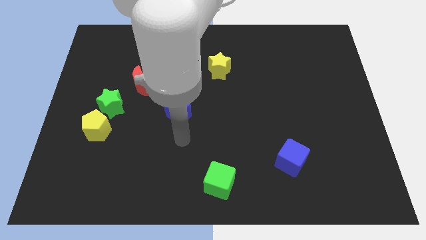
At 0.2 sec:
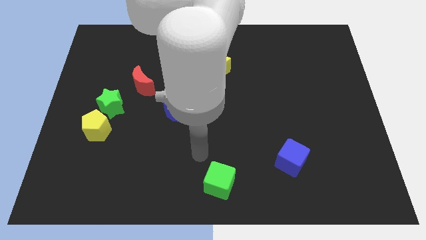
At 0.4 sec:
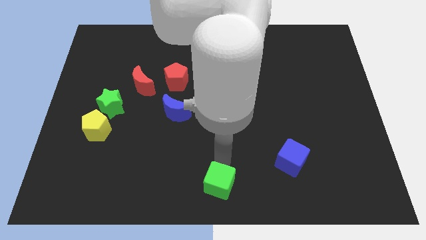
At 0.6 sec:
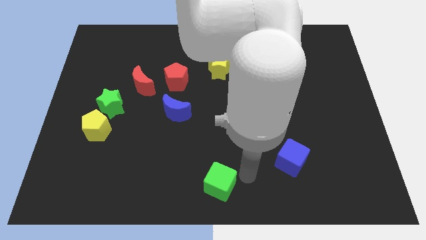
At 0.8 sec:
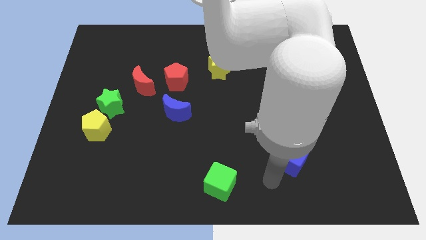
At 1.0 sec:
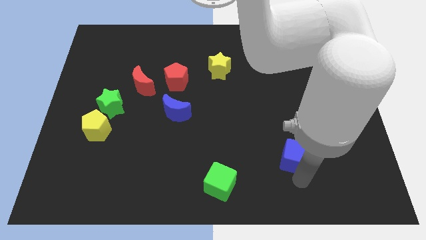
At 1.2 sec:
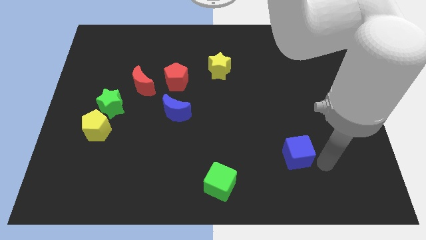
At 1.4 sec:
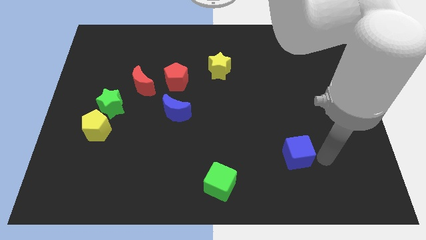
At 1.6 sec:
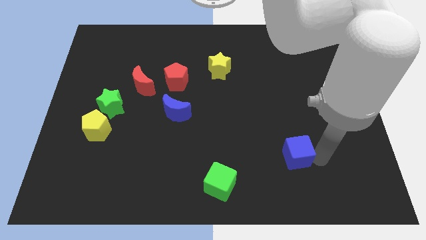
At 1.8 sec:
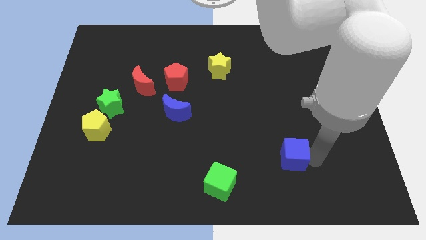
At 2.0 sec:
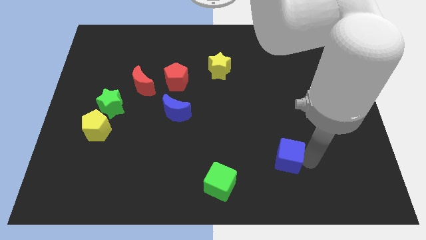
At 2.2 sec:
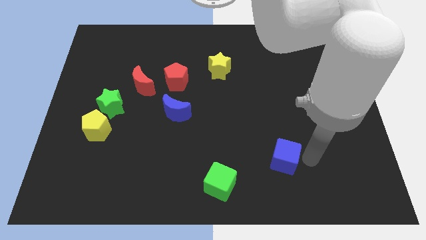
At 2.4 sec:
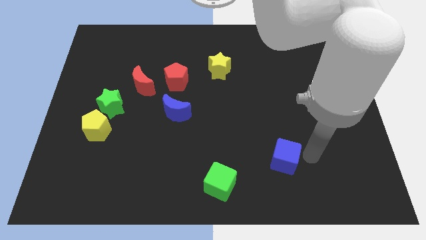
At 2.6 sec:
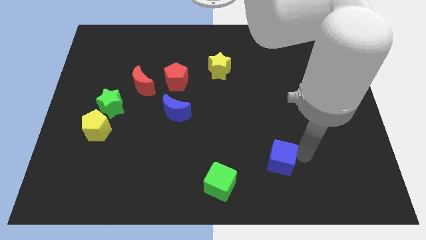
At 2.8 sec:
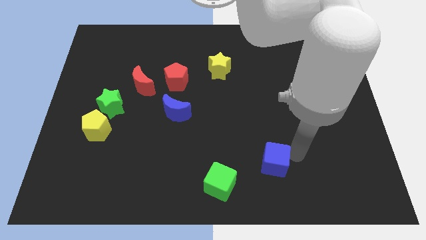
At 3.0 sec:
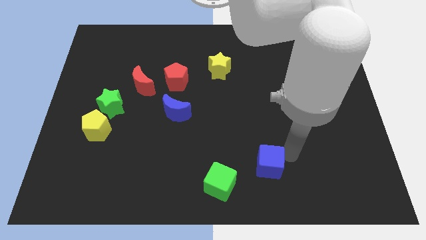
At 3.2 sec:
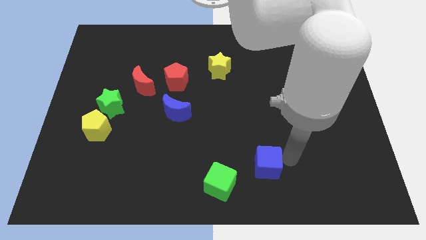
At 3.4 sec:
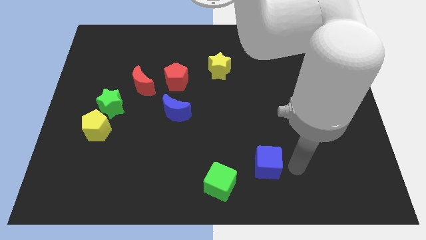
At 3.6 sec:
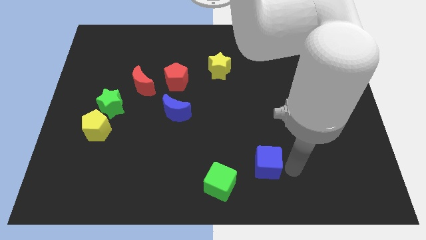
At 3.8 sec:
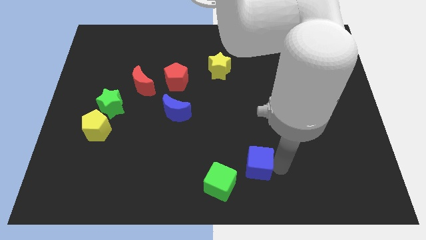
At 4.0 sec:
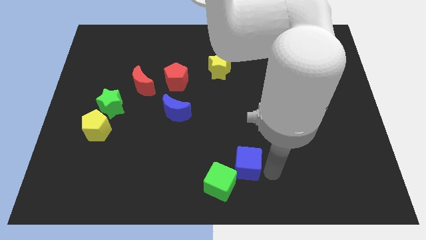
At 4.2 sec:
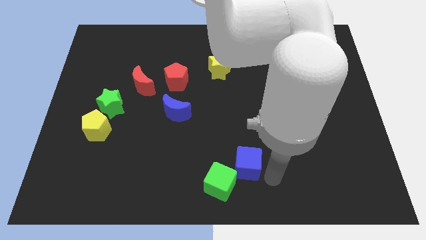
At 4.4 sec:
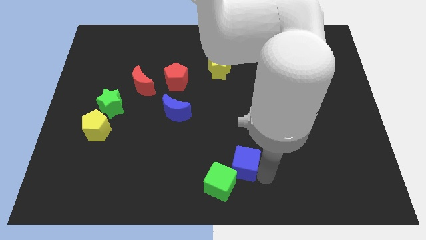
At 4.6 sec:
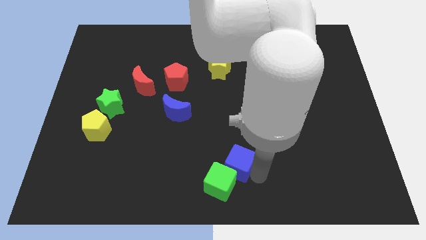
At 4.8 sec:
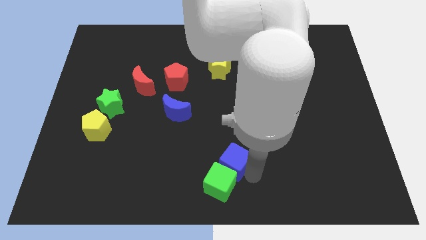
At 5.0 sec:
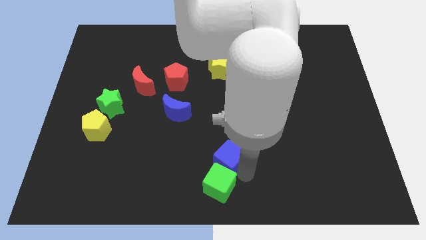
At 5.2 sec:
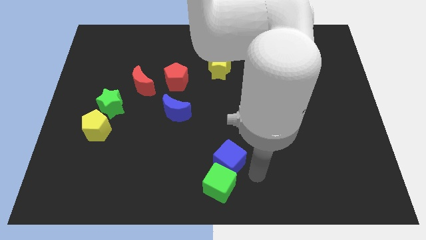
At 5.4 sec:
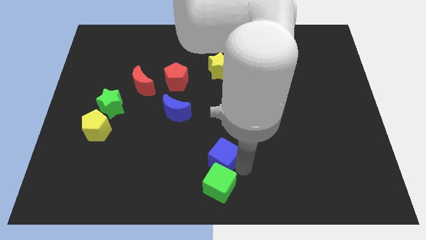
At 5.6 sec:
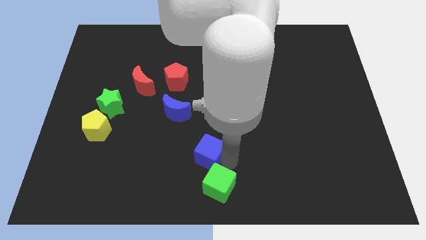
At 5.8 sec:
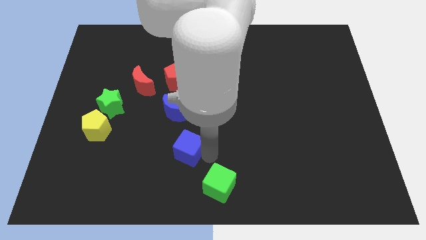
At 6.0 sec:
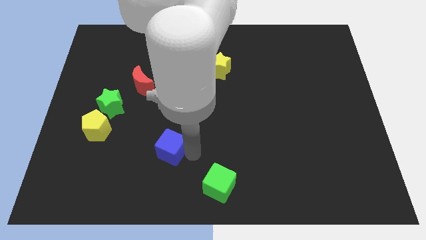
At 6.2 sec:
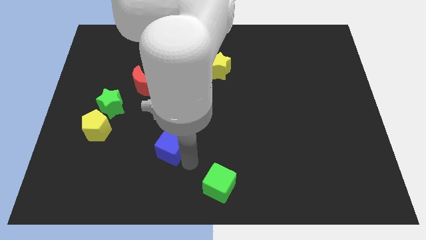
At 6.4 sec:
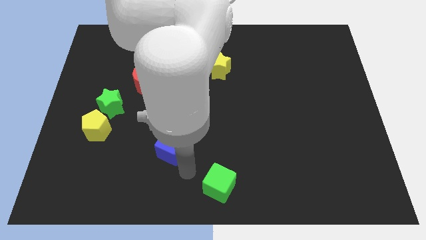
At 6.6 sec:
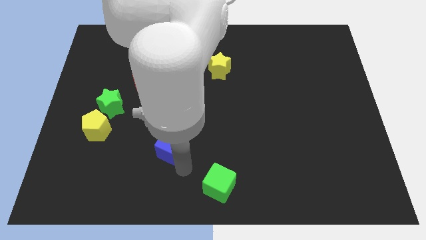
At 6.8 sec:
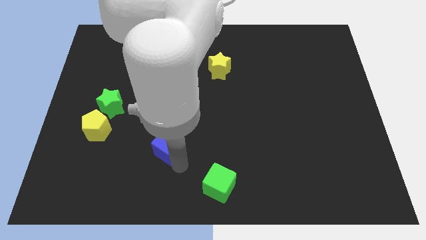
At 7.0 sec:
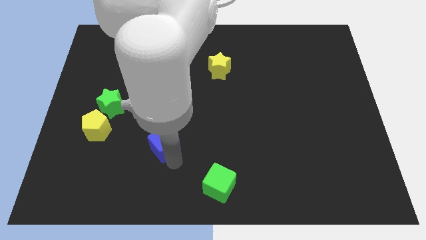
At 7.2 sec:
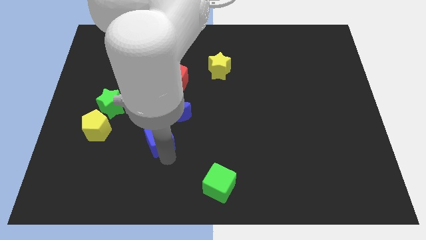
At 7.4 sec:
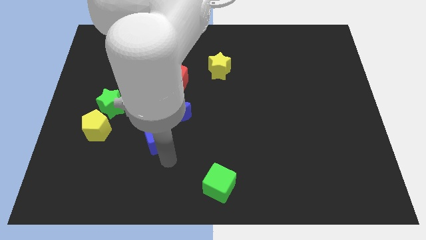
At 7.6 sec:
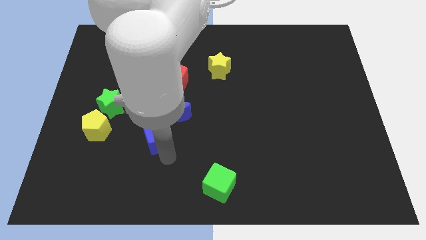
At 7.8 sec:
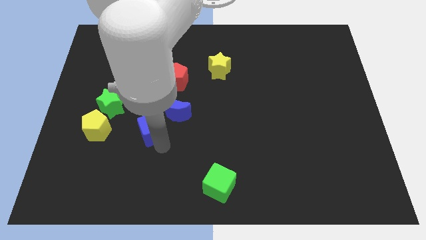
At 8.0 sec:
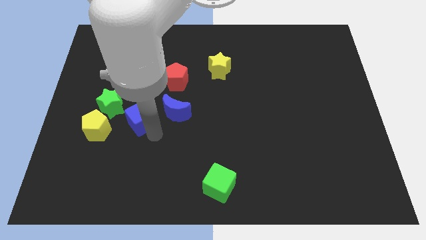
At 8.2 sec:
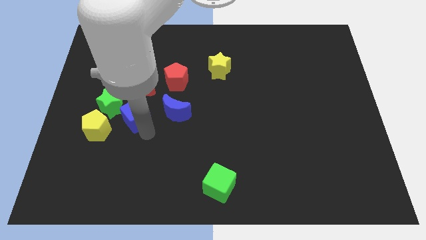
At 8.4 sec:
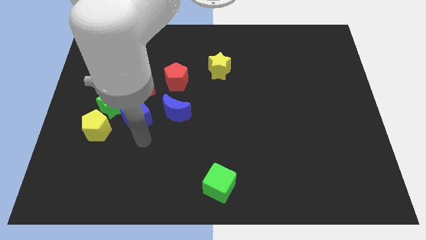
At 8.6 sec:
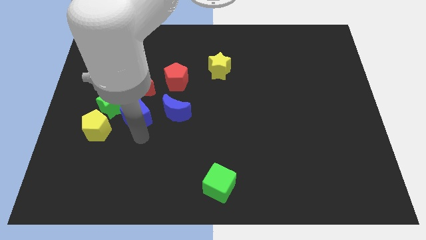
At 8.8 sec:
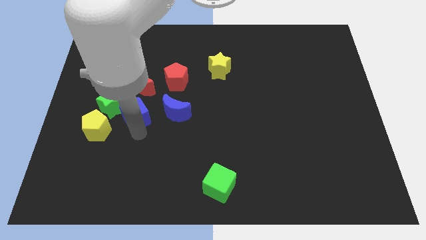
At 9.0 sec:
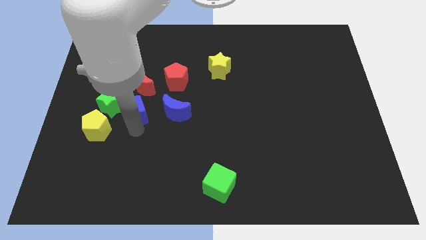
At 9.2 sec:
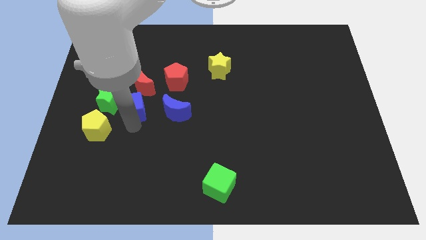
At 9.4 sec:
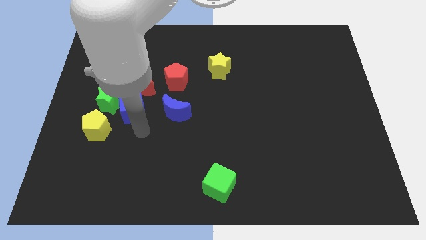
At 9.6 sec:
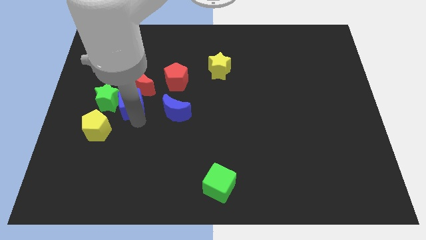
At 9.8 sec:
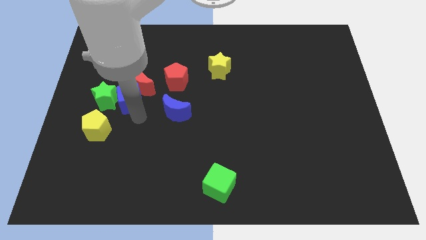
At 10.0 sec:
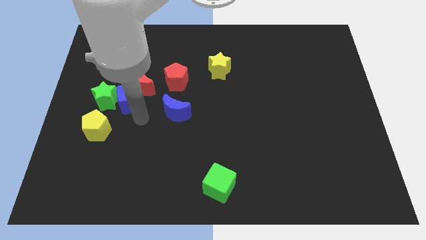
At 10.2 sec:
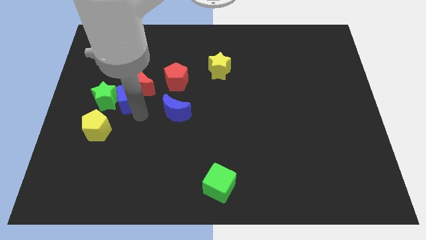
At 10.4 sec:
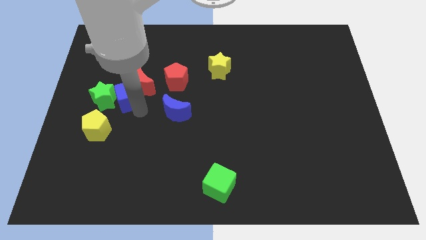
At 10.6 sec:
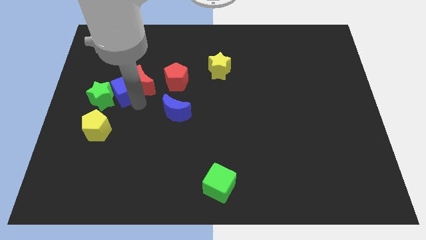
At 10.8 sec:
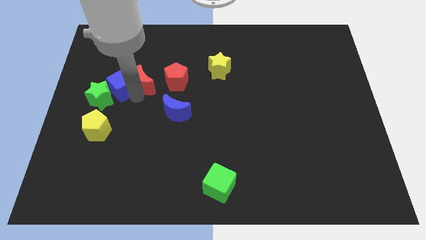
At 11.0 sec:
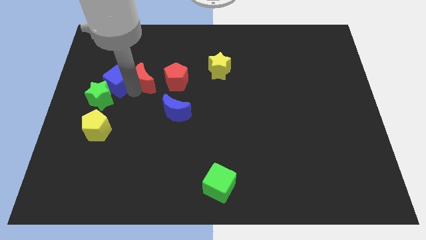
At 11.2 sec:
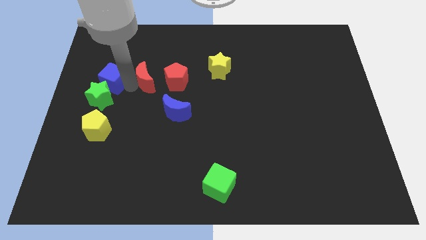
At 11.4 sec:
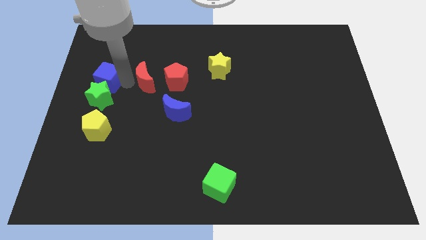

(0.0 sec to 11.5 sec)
slide the blue cube to the top left of the green star

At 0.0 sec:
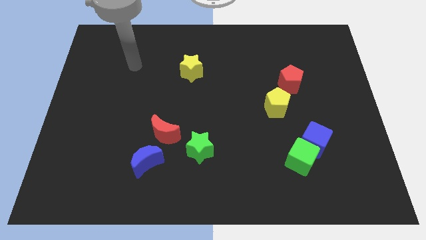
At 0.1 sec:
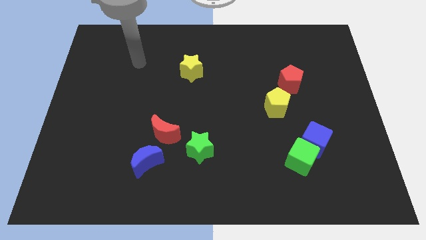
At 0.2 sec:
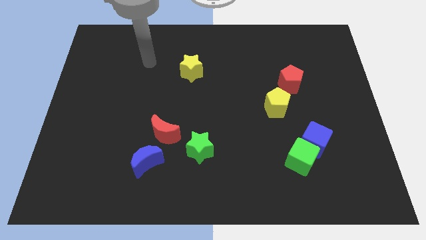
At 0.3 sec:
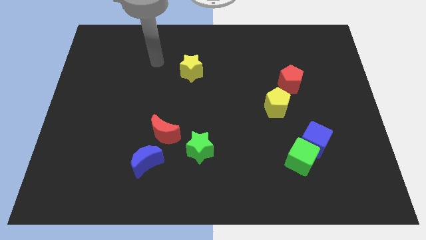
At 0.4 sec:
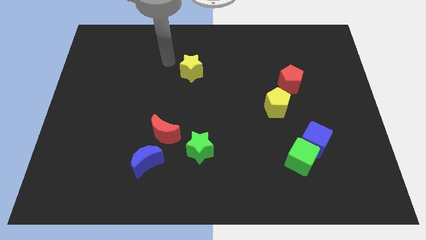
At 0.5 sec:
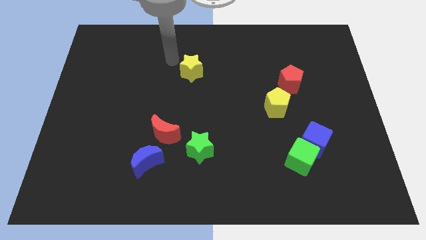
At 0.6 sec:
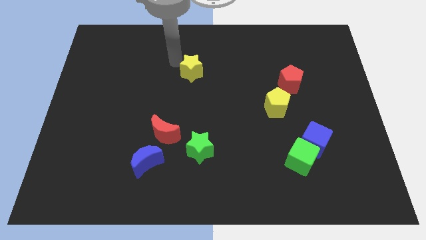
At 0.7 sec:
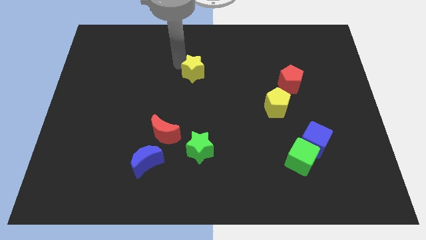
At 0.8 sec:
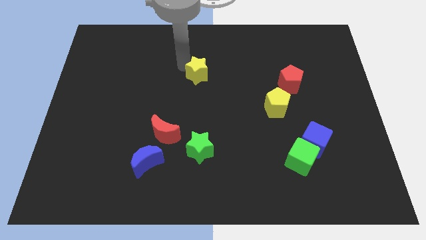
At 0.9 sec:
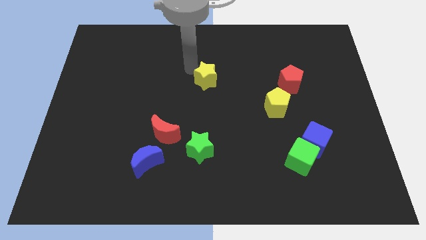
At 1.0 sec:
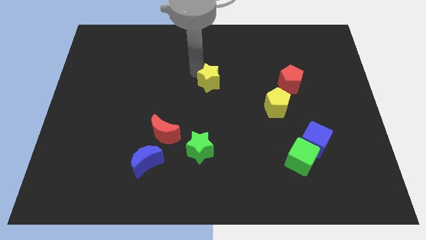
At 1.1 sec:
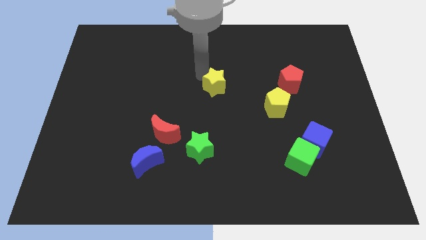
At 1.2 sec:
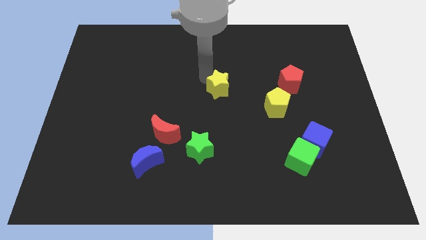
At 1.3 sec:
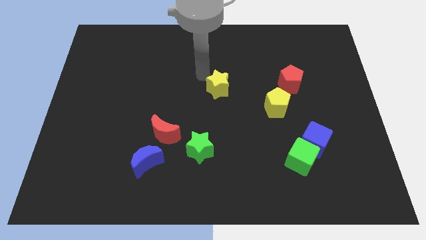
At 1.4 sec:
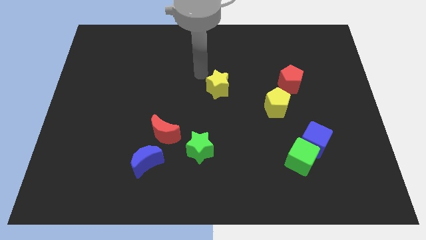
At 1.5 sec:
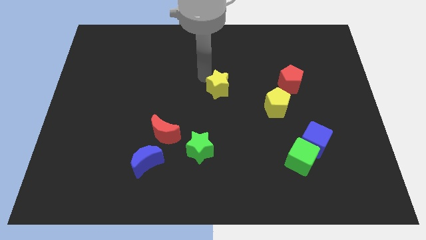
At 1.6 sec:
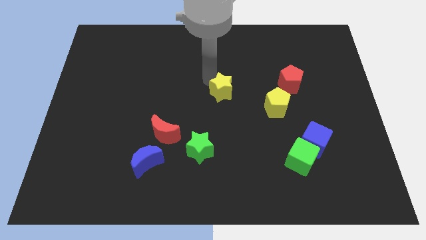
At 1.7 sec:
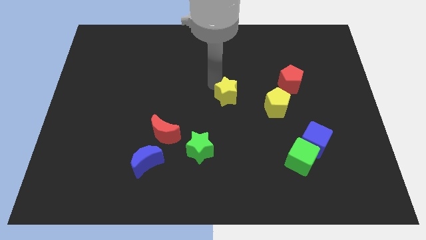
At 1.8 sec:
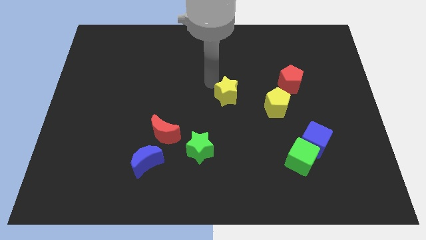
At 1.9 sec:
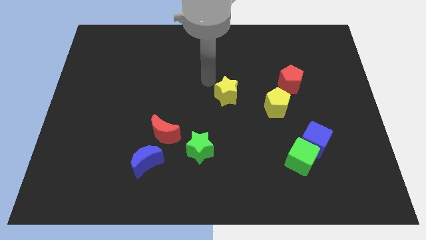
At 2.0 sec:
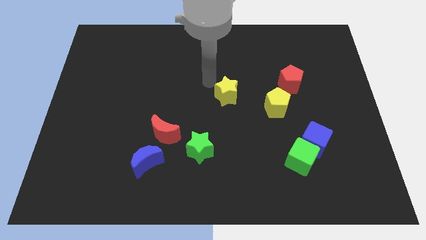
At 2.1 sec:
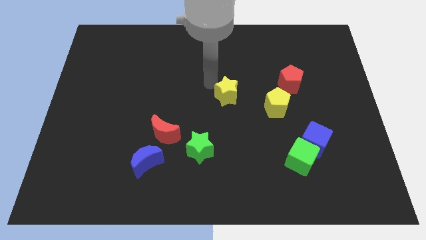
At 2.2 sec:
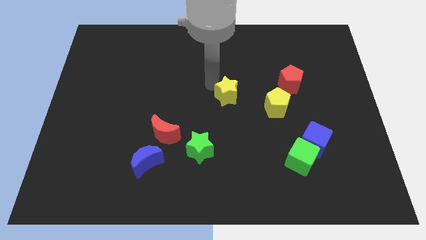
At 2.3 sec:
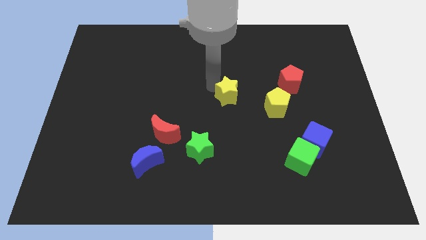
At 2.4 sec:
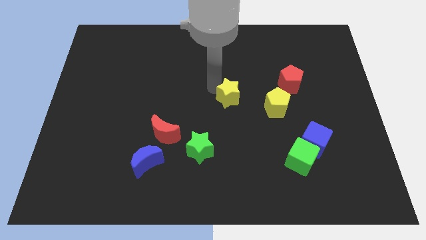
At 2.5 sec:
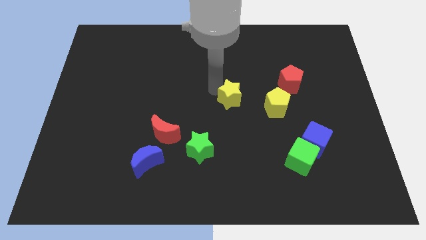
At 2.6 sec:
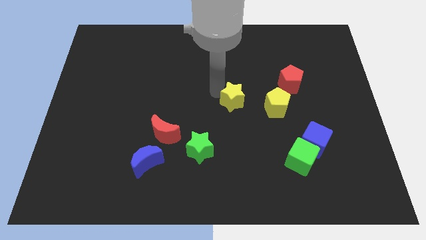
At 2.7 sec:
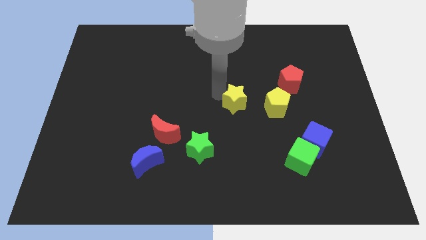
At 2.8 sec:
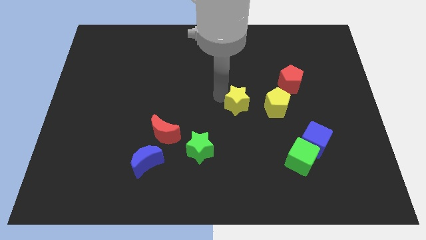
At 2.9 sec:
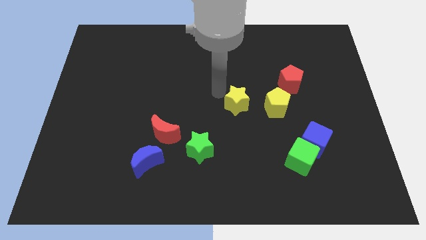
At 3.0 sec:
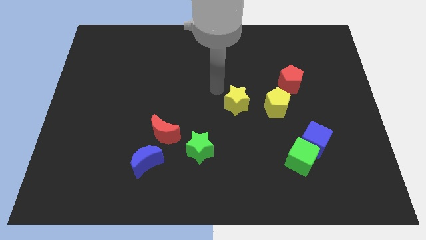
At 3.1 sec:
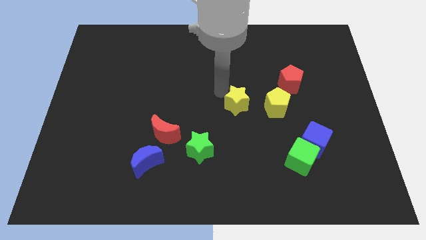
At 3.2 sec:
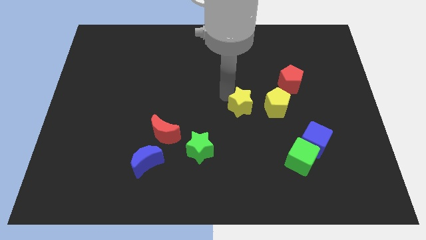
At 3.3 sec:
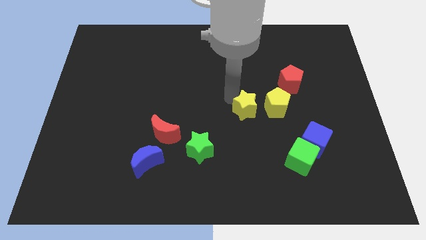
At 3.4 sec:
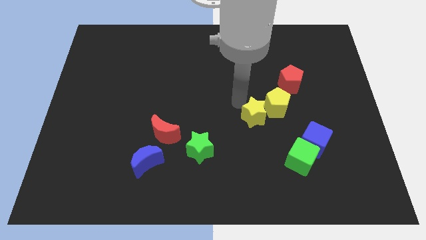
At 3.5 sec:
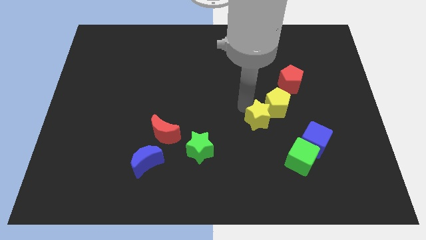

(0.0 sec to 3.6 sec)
put the yellow star to the bottom of the yellow pentagon
